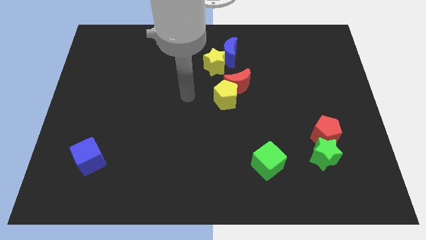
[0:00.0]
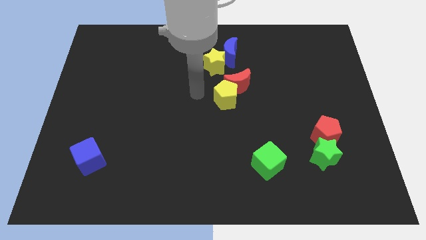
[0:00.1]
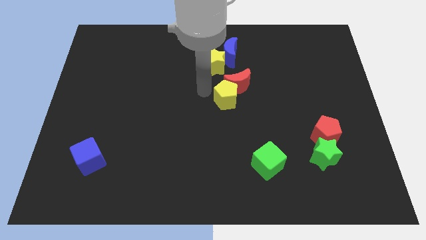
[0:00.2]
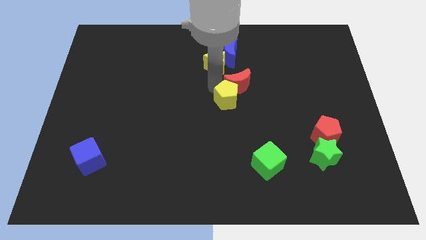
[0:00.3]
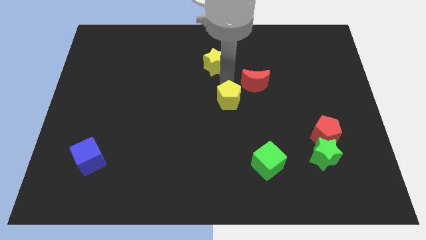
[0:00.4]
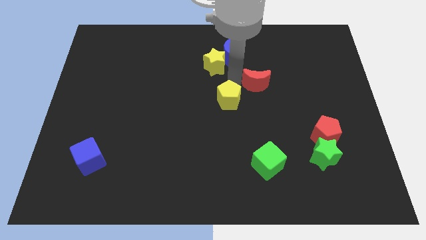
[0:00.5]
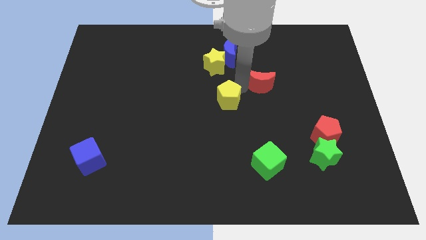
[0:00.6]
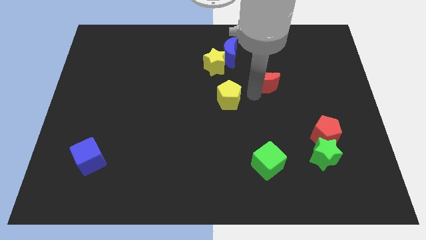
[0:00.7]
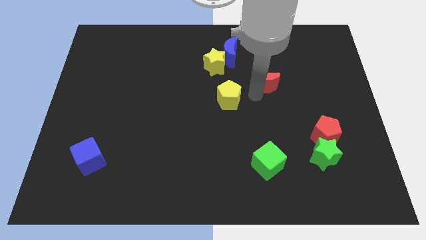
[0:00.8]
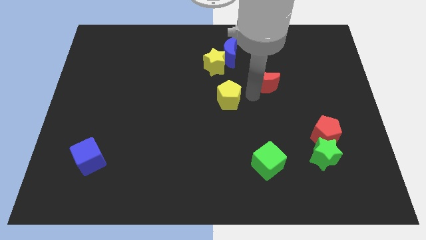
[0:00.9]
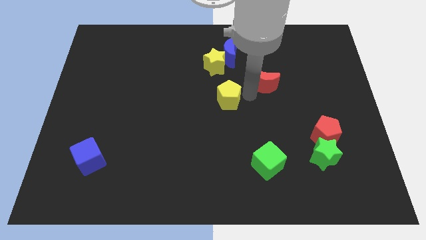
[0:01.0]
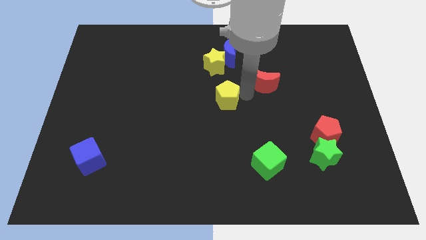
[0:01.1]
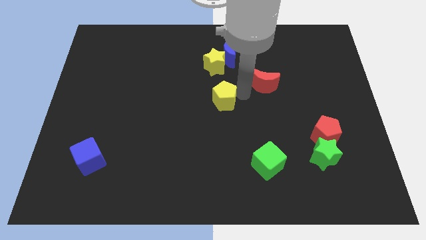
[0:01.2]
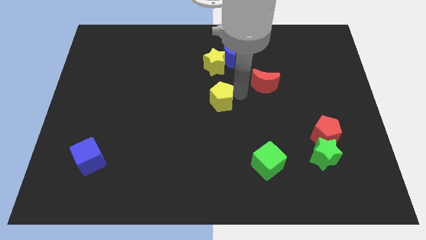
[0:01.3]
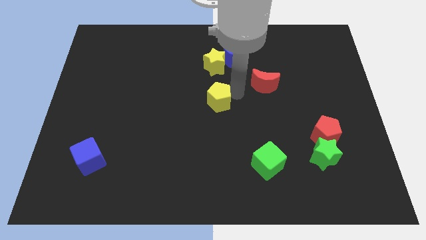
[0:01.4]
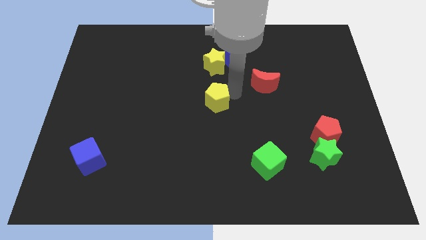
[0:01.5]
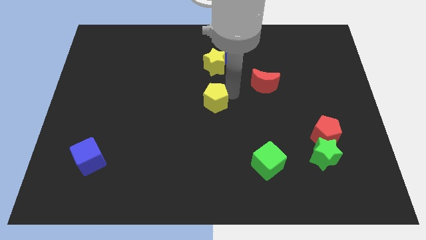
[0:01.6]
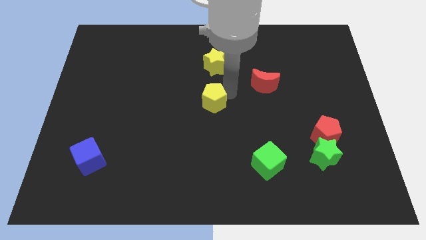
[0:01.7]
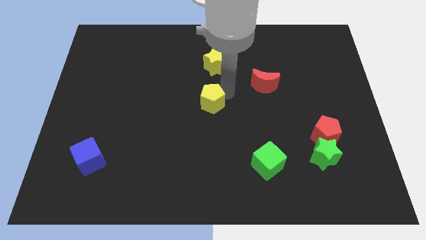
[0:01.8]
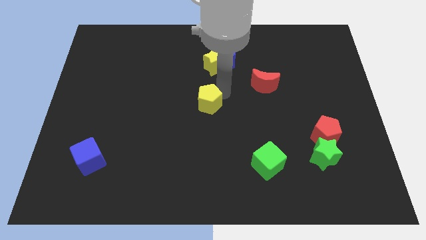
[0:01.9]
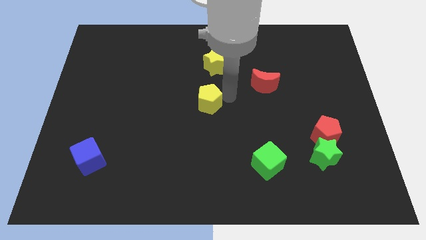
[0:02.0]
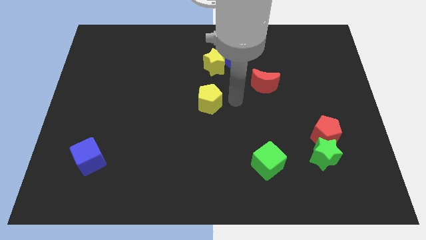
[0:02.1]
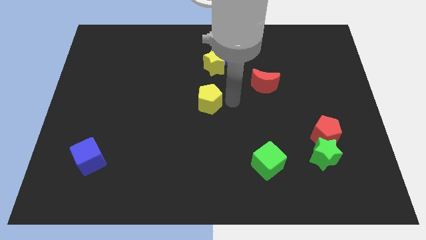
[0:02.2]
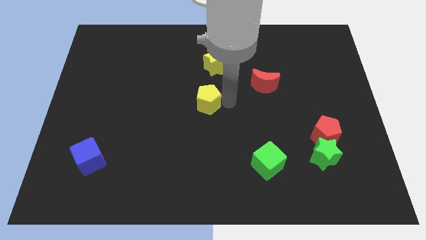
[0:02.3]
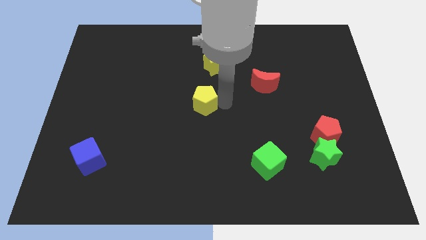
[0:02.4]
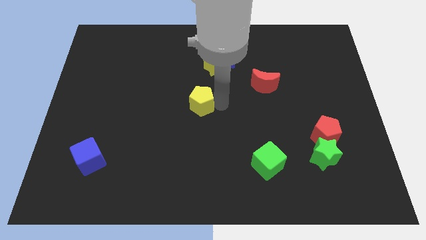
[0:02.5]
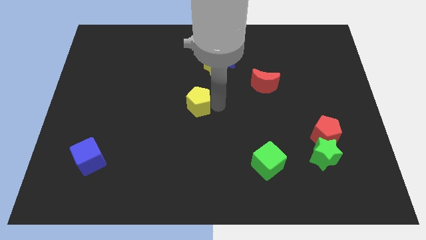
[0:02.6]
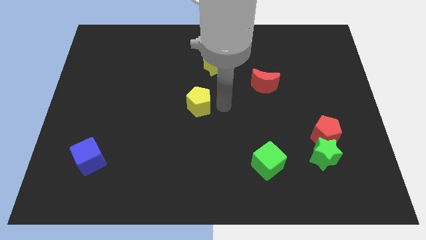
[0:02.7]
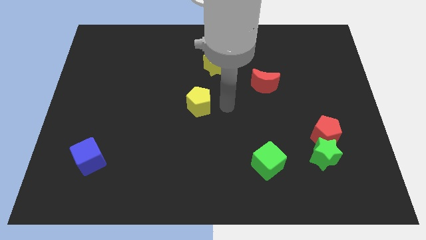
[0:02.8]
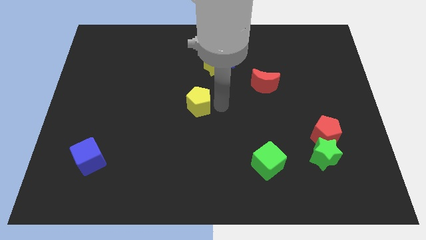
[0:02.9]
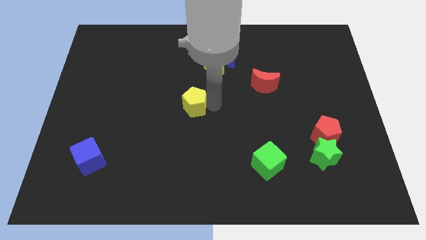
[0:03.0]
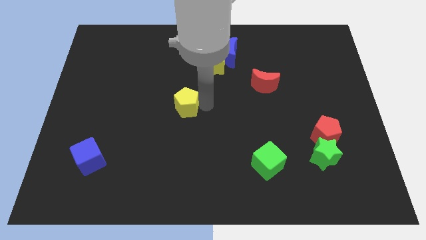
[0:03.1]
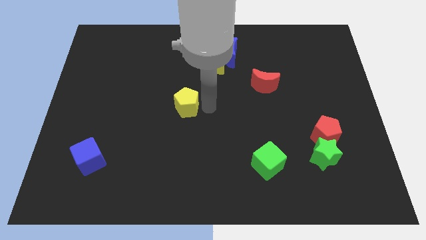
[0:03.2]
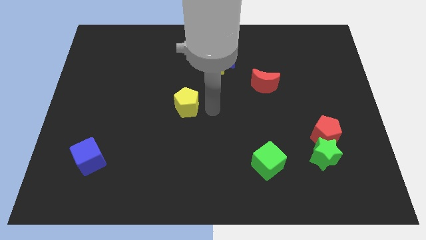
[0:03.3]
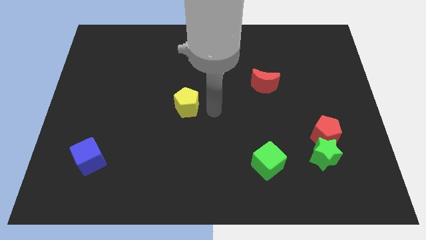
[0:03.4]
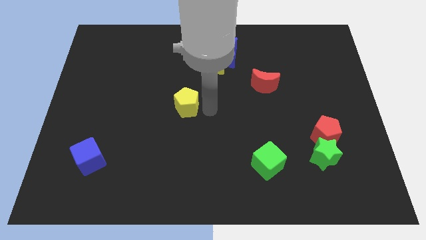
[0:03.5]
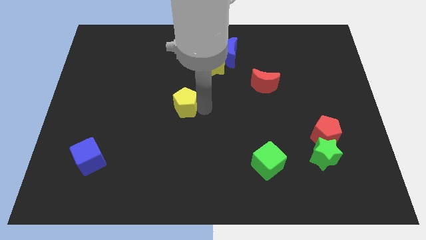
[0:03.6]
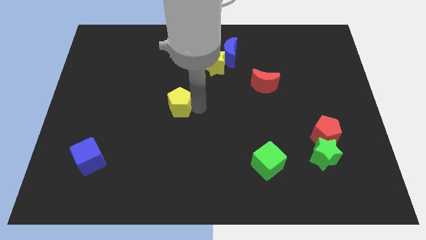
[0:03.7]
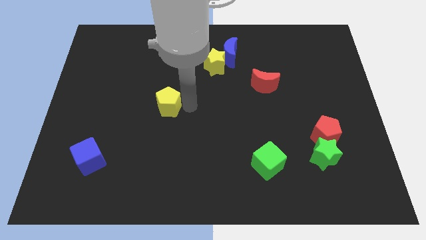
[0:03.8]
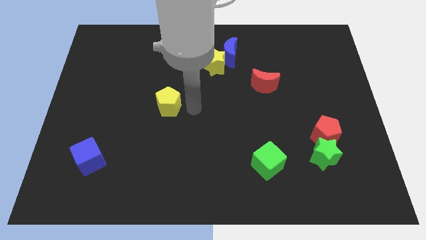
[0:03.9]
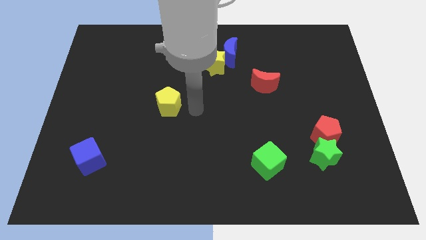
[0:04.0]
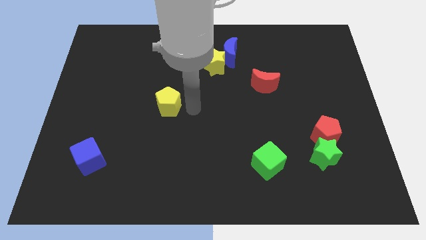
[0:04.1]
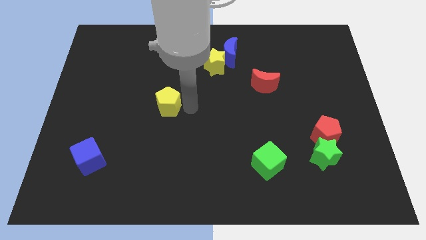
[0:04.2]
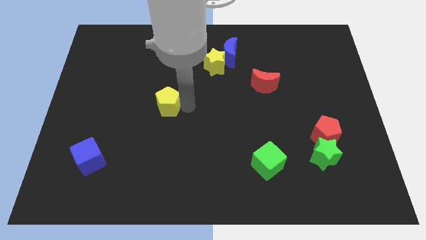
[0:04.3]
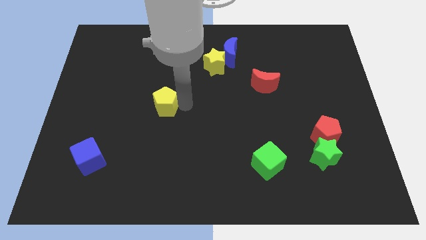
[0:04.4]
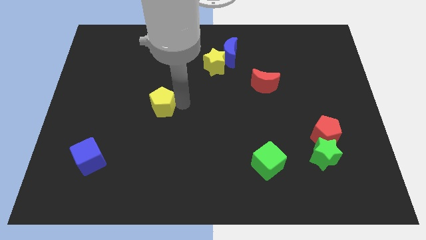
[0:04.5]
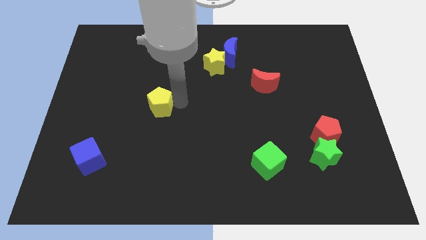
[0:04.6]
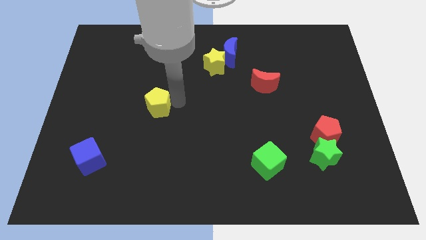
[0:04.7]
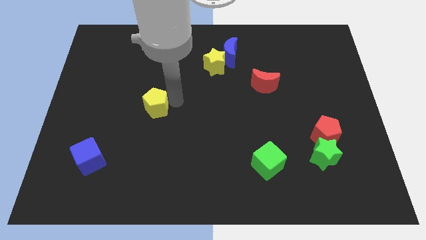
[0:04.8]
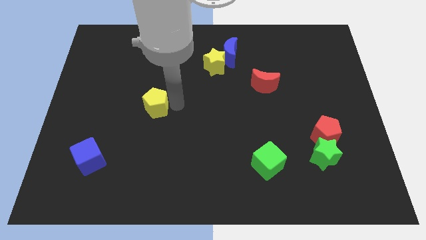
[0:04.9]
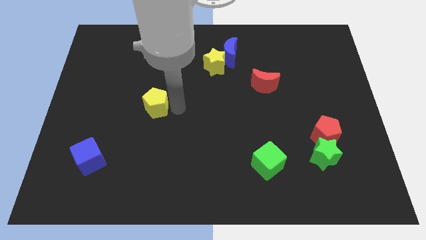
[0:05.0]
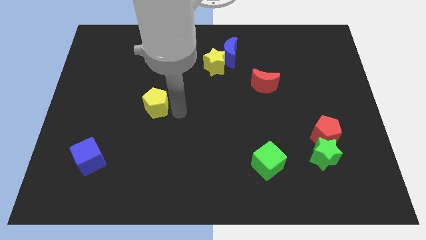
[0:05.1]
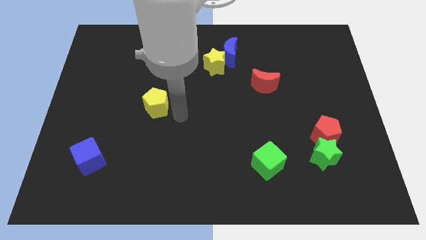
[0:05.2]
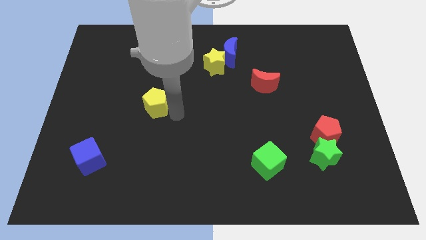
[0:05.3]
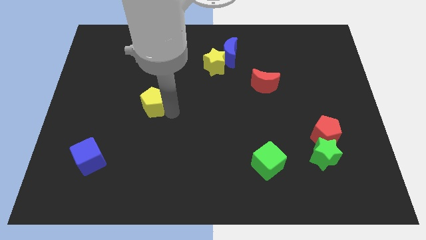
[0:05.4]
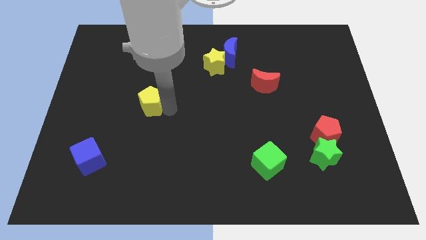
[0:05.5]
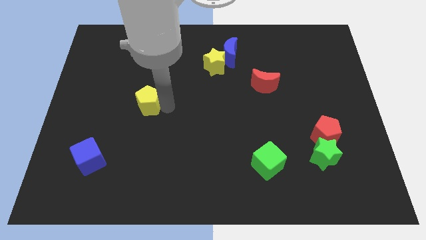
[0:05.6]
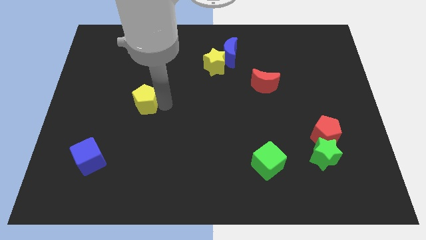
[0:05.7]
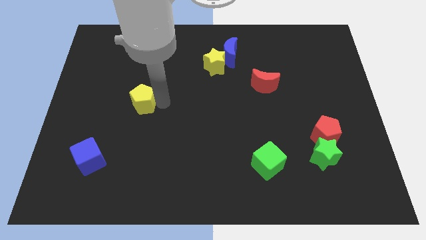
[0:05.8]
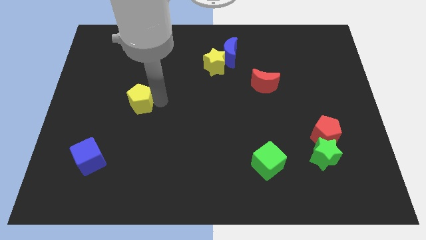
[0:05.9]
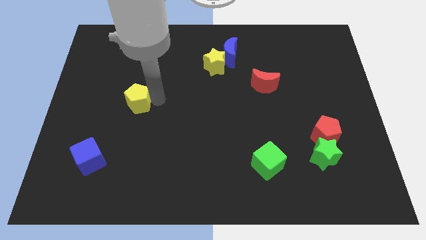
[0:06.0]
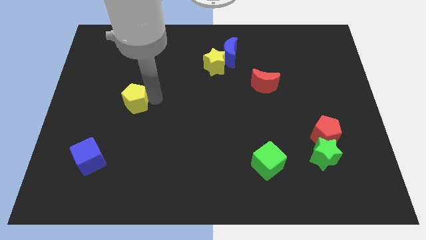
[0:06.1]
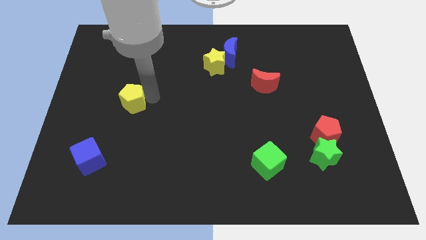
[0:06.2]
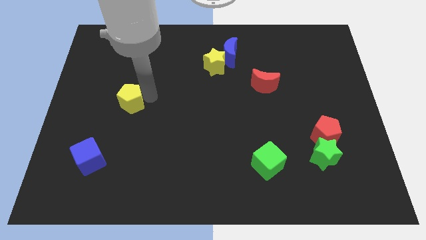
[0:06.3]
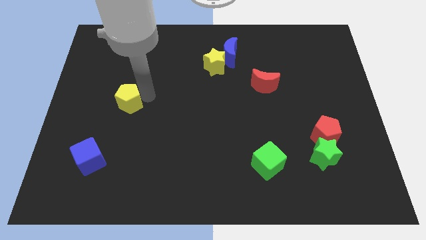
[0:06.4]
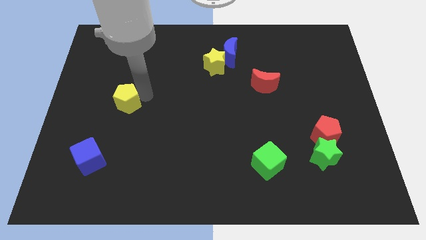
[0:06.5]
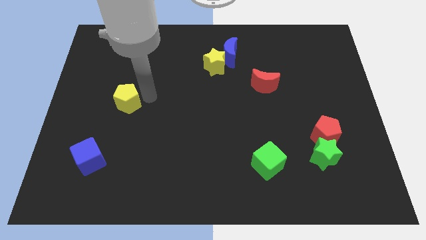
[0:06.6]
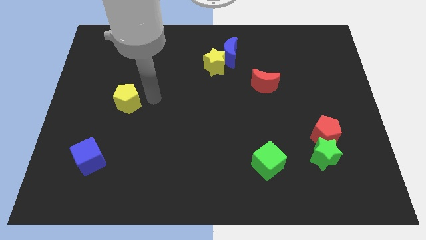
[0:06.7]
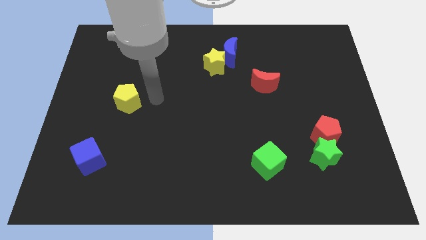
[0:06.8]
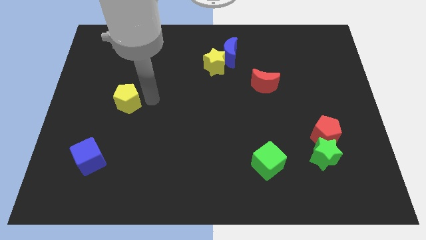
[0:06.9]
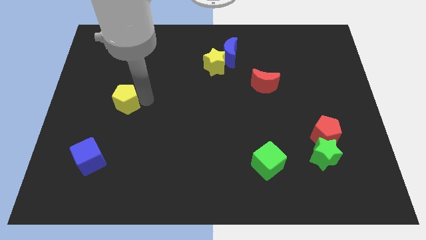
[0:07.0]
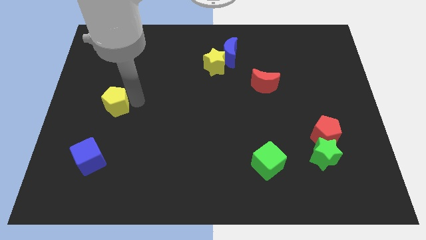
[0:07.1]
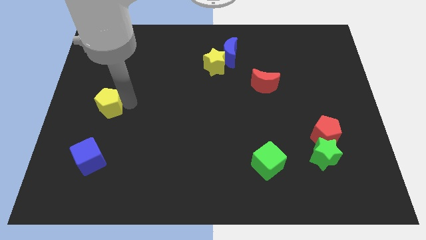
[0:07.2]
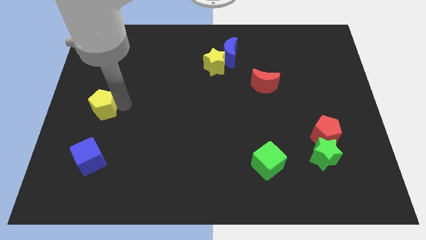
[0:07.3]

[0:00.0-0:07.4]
push the yellow pentagon to the left side
